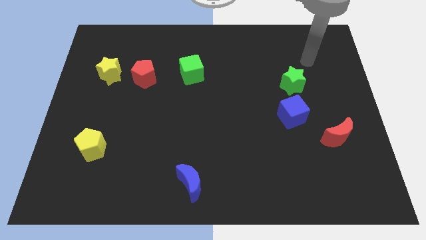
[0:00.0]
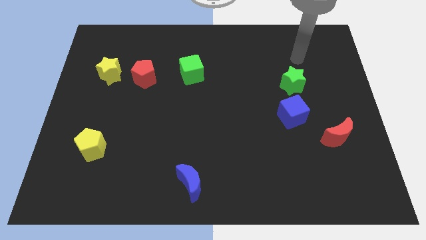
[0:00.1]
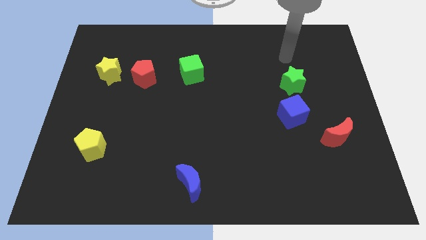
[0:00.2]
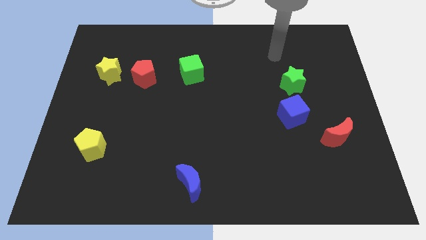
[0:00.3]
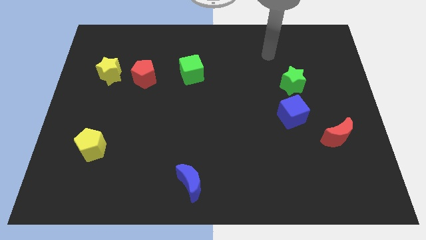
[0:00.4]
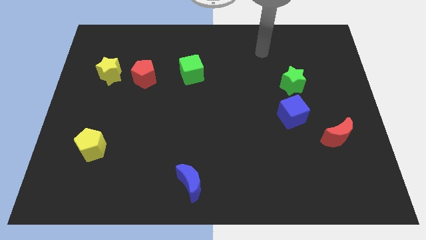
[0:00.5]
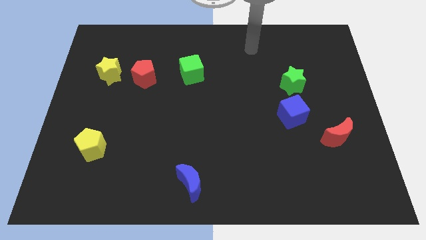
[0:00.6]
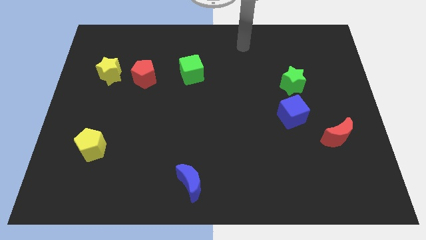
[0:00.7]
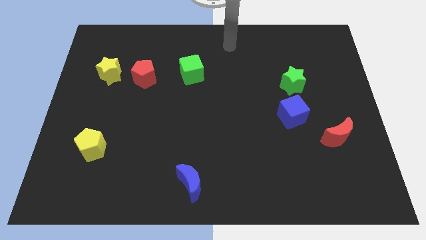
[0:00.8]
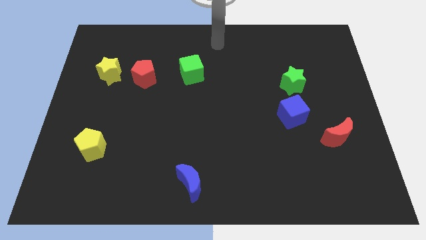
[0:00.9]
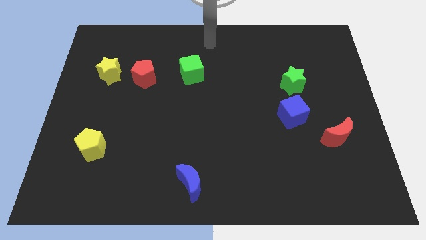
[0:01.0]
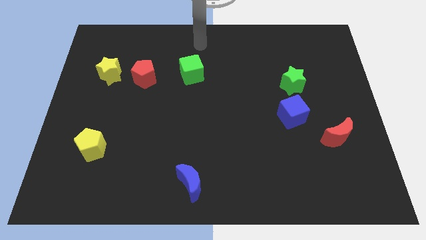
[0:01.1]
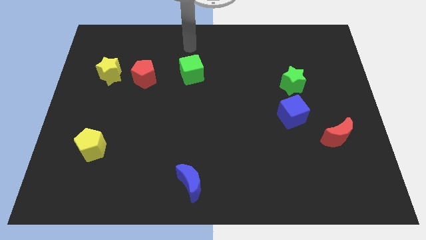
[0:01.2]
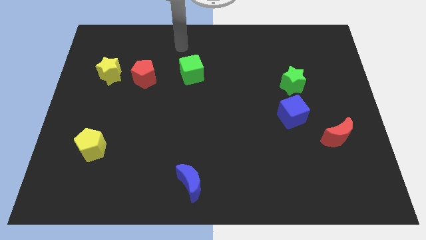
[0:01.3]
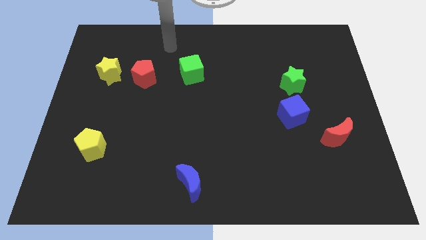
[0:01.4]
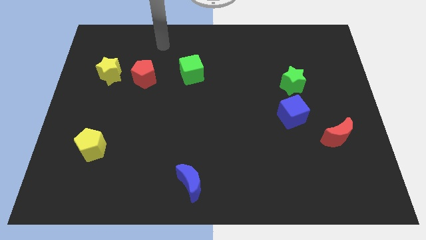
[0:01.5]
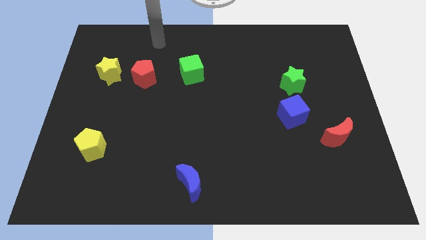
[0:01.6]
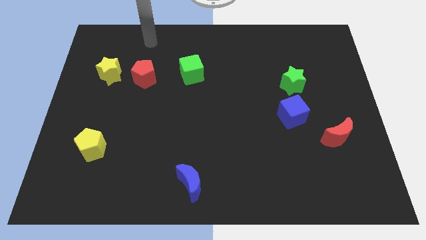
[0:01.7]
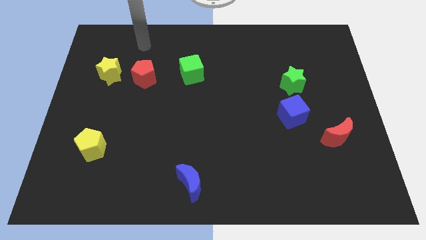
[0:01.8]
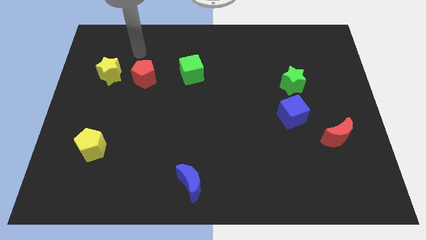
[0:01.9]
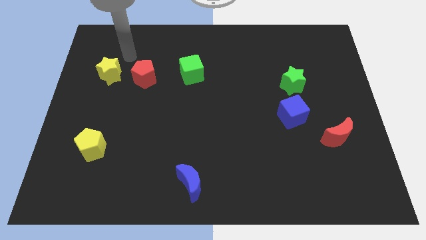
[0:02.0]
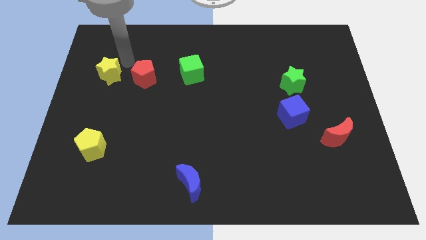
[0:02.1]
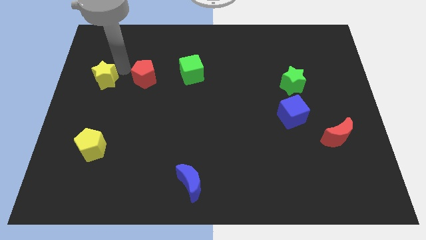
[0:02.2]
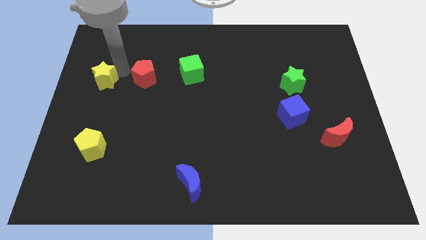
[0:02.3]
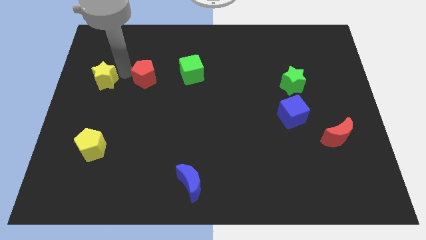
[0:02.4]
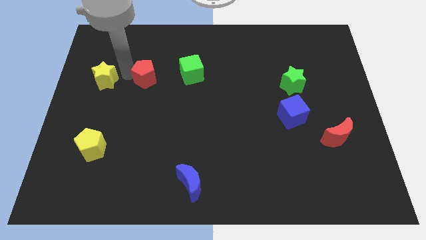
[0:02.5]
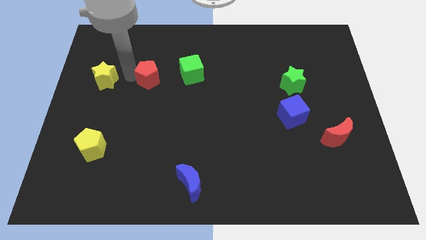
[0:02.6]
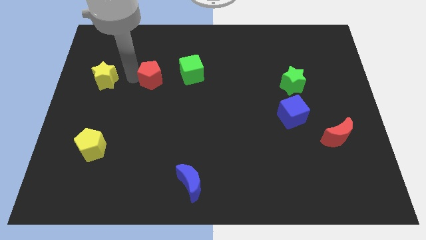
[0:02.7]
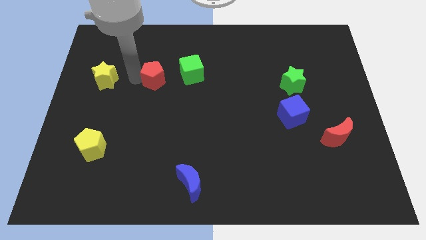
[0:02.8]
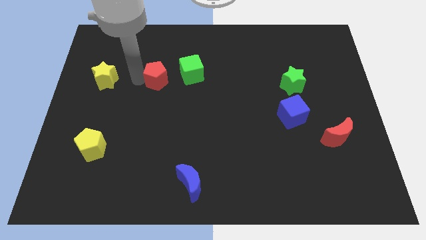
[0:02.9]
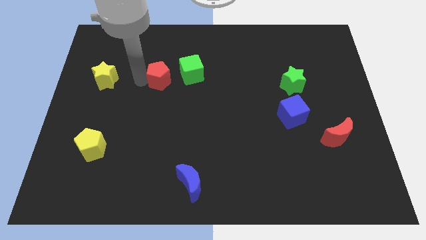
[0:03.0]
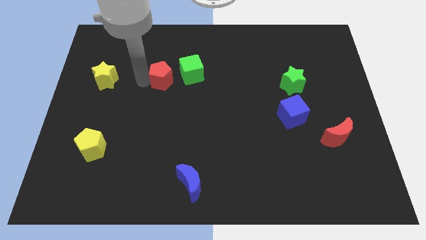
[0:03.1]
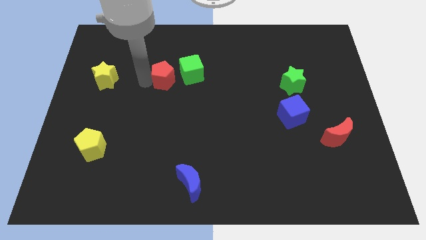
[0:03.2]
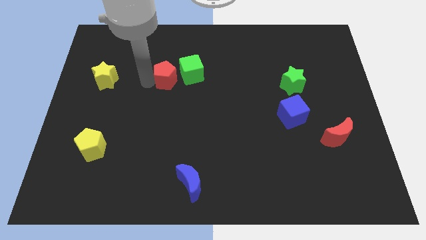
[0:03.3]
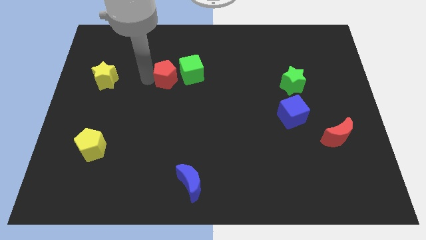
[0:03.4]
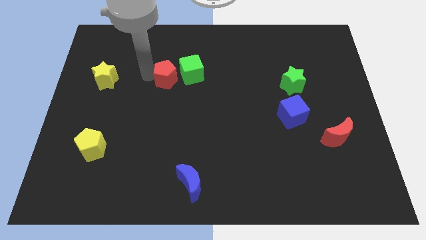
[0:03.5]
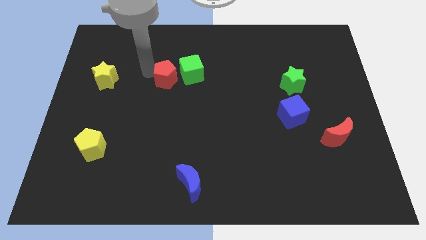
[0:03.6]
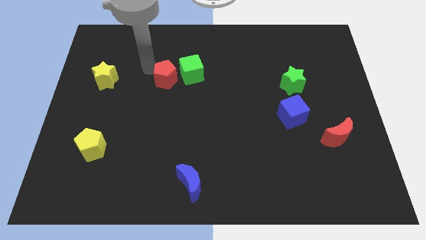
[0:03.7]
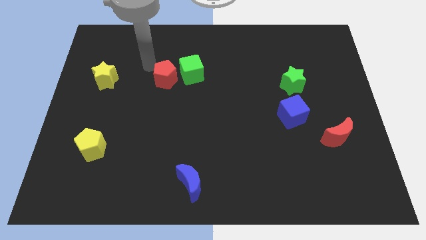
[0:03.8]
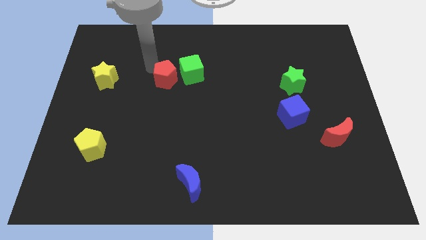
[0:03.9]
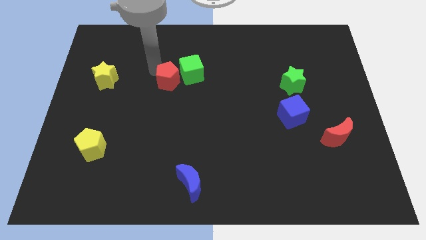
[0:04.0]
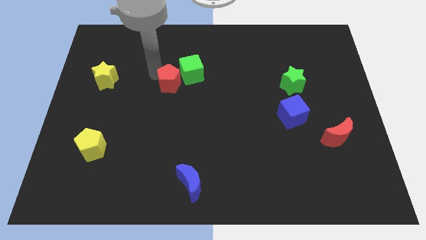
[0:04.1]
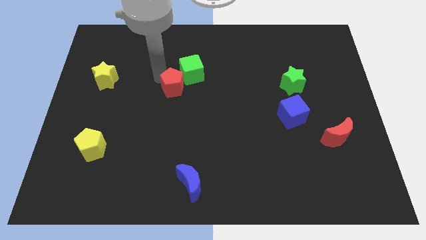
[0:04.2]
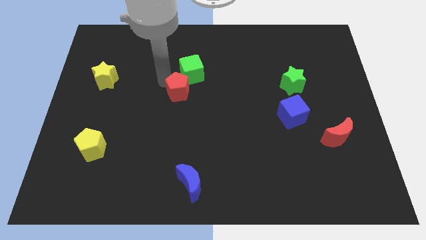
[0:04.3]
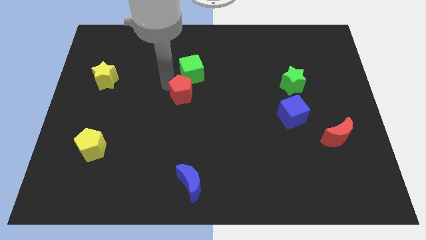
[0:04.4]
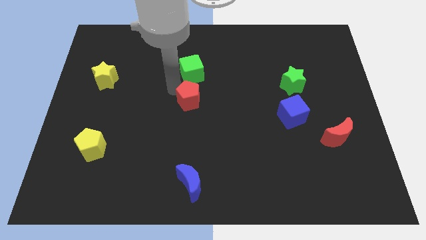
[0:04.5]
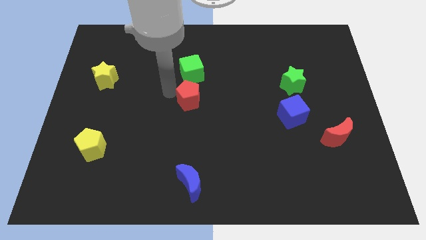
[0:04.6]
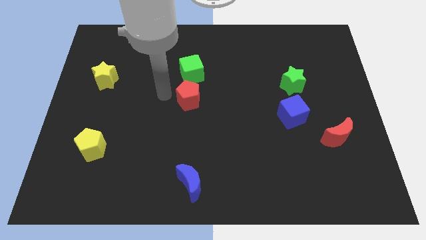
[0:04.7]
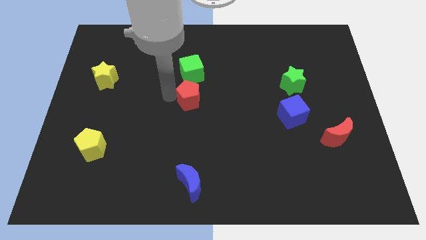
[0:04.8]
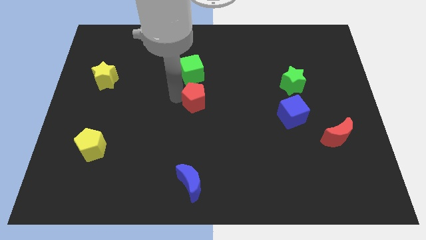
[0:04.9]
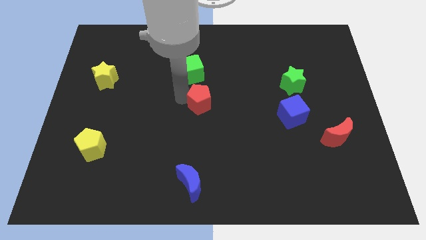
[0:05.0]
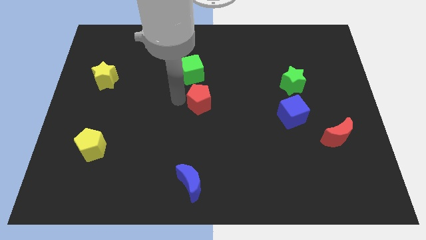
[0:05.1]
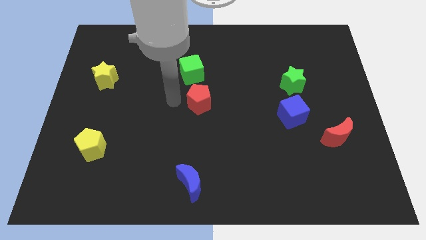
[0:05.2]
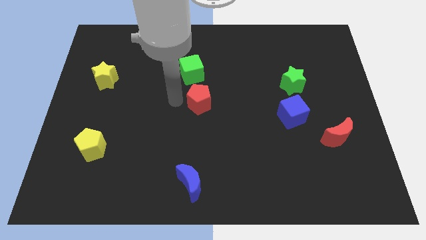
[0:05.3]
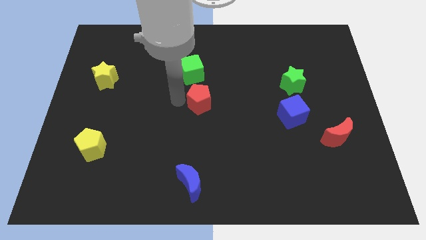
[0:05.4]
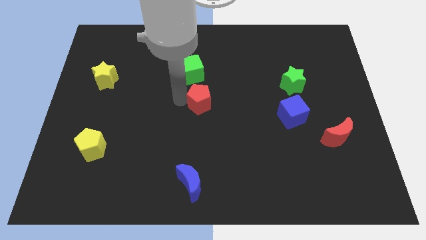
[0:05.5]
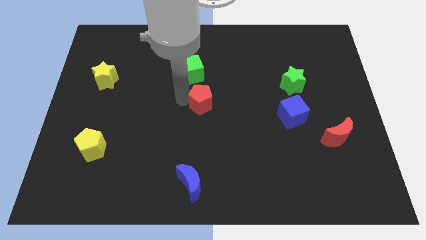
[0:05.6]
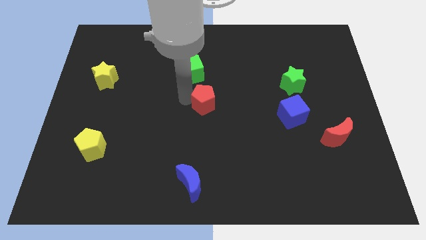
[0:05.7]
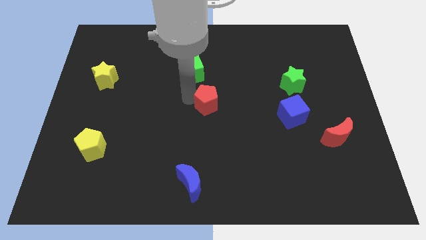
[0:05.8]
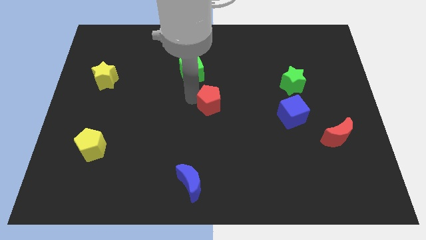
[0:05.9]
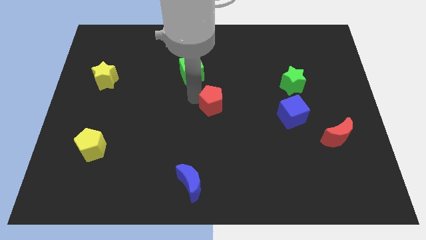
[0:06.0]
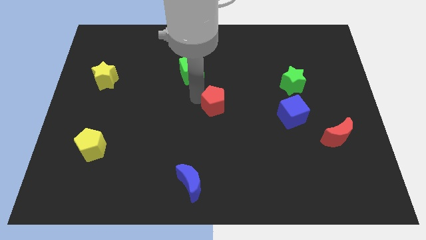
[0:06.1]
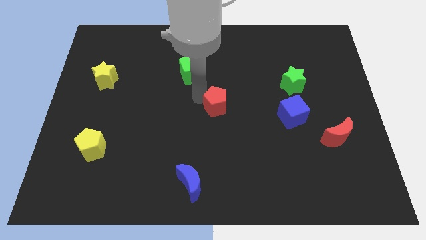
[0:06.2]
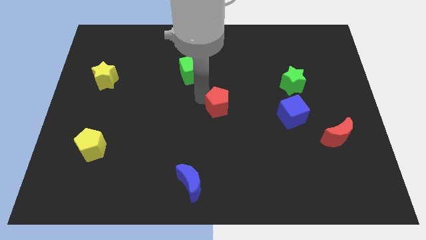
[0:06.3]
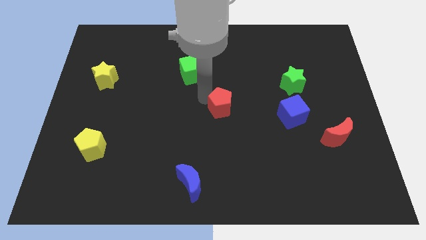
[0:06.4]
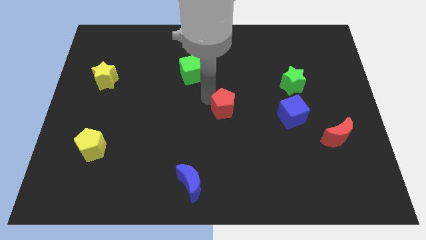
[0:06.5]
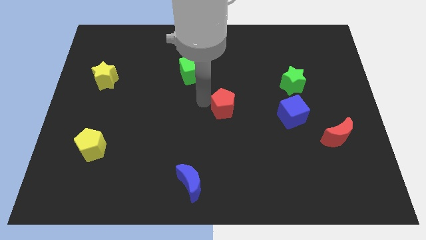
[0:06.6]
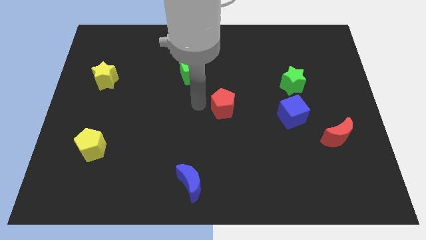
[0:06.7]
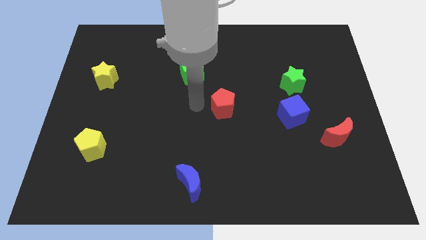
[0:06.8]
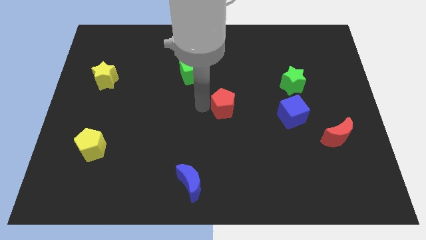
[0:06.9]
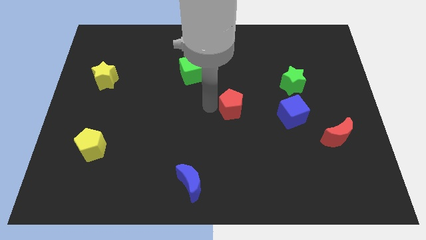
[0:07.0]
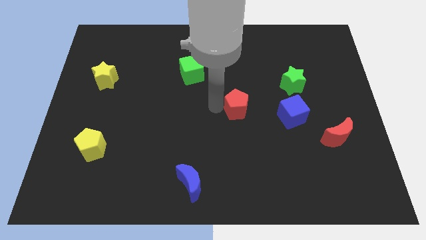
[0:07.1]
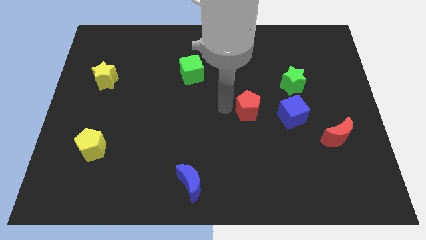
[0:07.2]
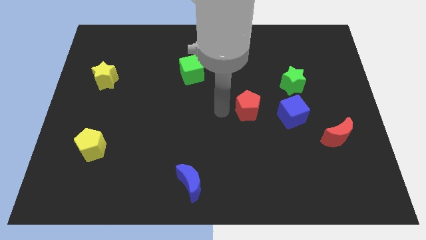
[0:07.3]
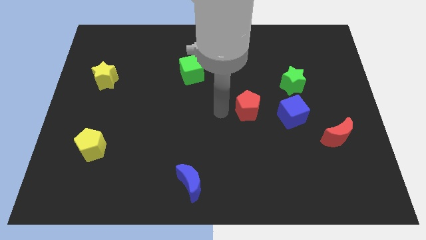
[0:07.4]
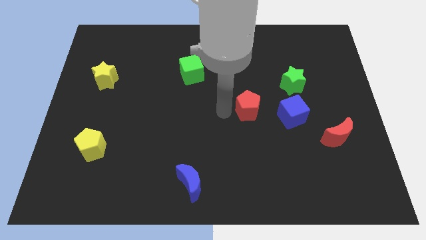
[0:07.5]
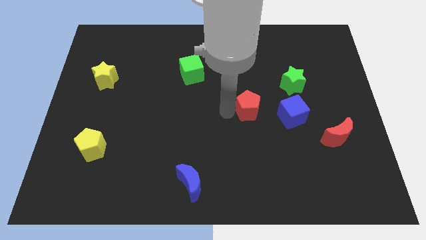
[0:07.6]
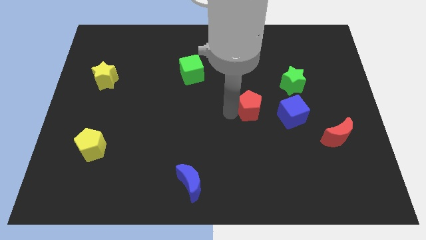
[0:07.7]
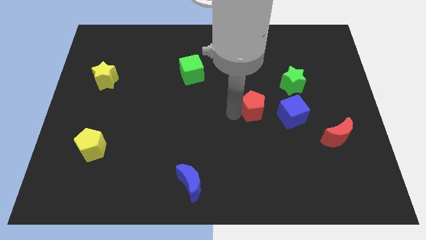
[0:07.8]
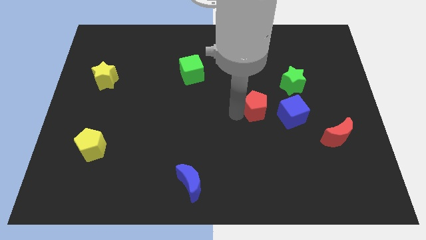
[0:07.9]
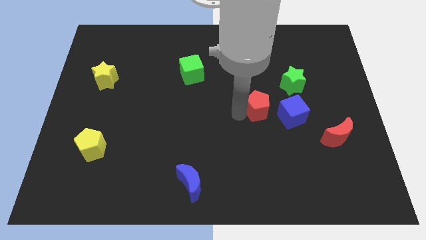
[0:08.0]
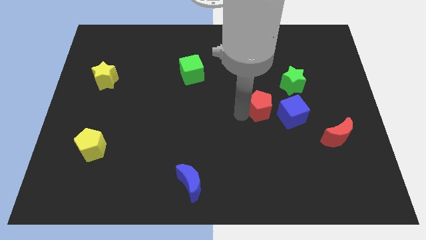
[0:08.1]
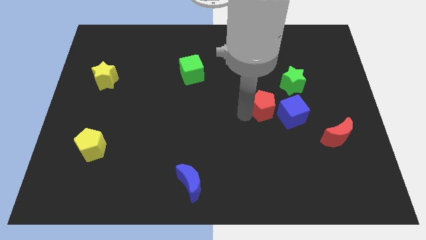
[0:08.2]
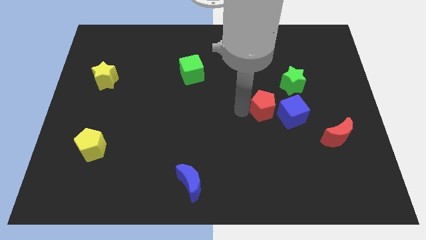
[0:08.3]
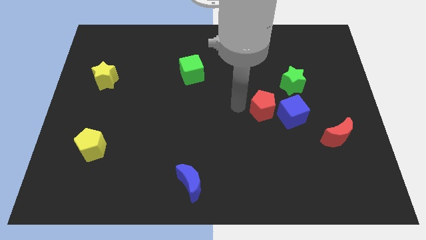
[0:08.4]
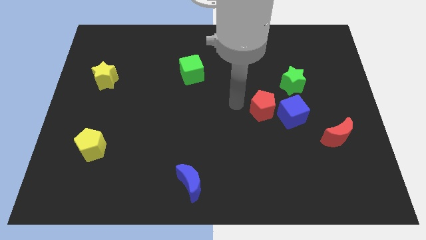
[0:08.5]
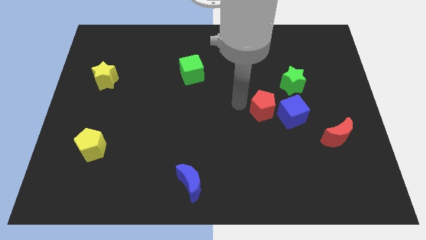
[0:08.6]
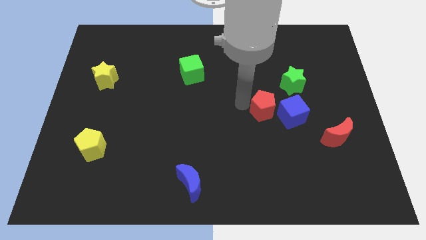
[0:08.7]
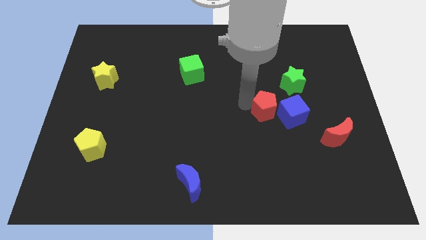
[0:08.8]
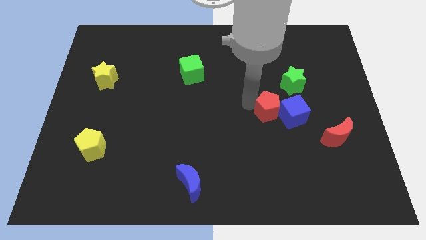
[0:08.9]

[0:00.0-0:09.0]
slide the red pentagon next to the blue cube
